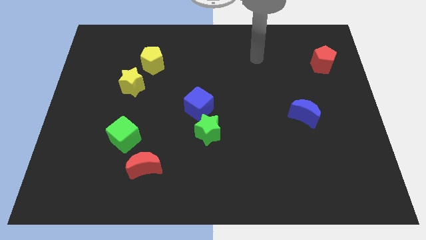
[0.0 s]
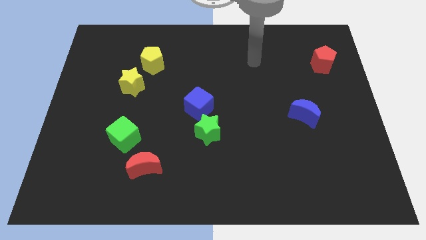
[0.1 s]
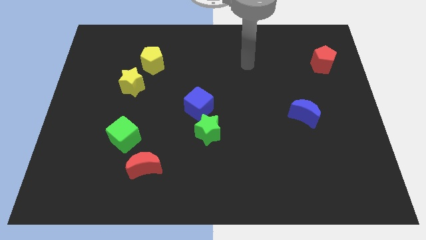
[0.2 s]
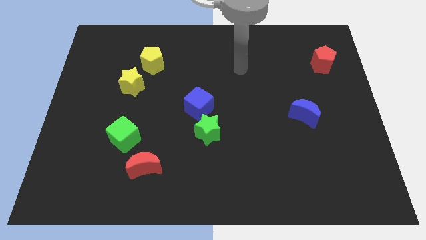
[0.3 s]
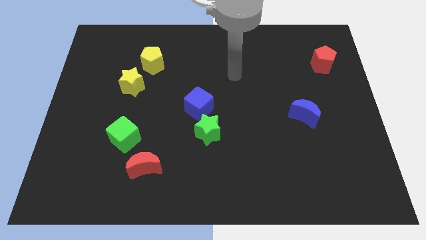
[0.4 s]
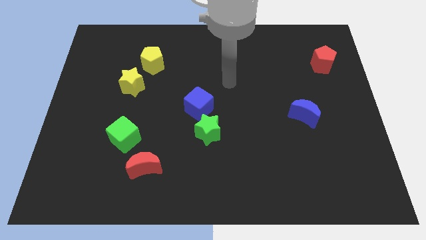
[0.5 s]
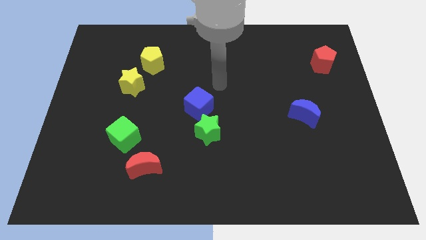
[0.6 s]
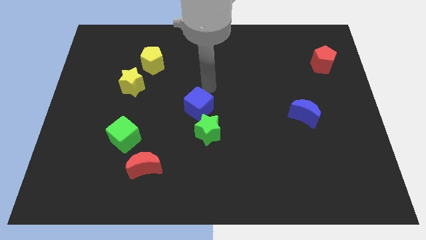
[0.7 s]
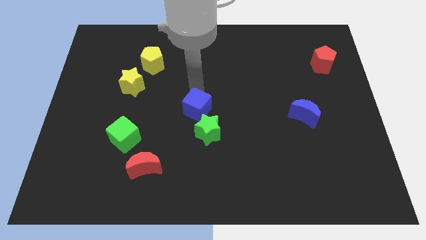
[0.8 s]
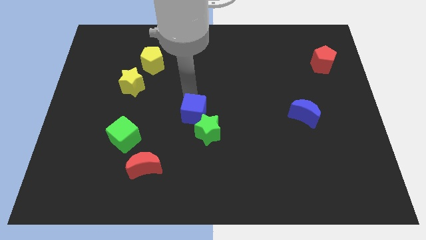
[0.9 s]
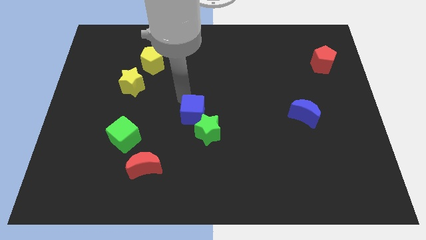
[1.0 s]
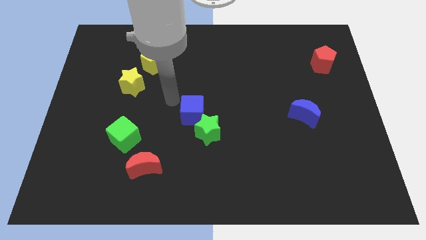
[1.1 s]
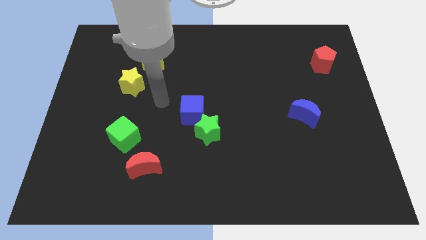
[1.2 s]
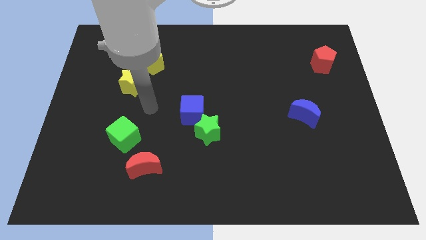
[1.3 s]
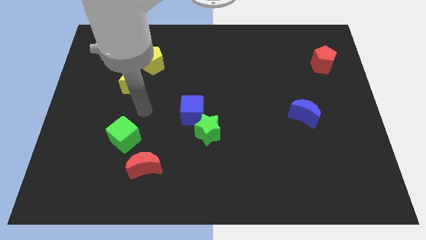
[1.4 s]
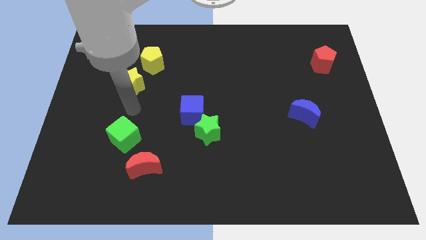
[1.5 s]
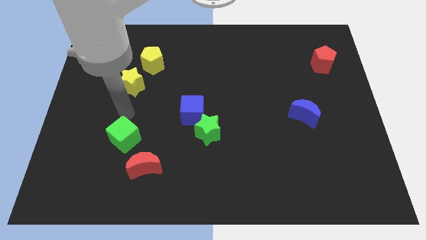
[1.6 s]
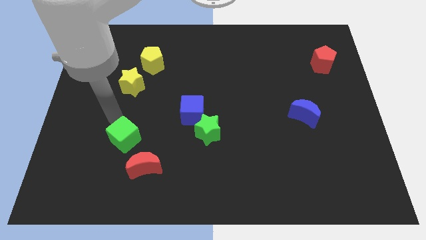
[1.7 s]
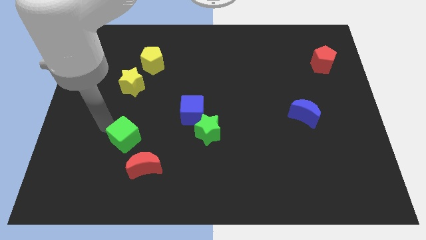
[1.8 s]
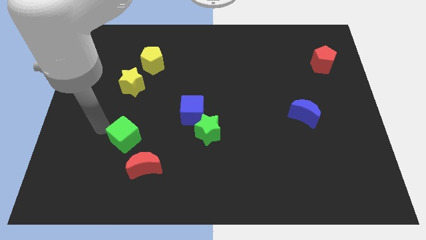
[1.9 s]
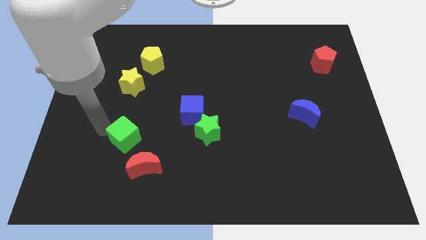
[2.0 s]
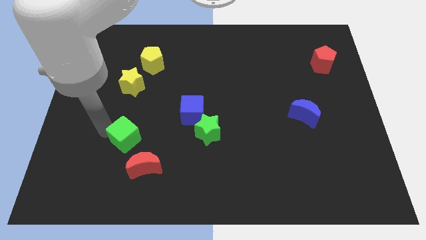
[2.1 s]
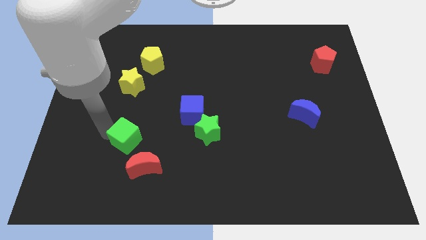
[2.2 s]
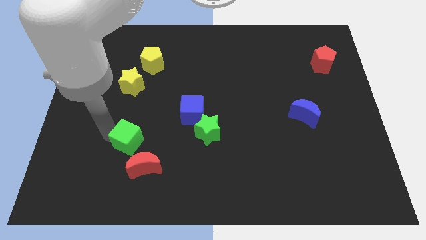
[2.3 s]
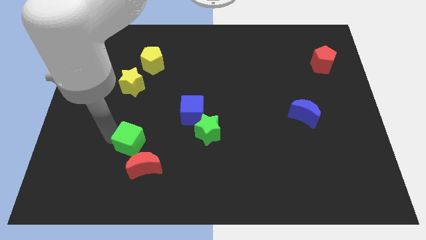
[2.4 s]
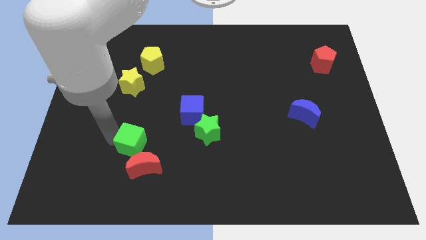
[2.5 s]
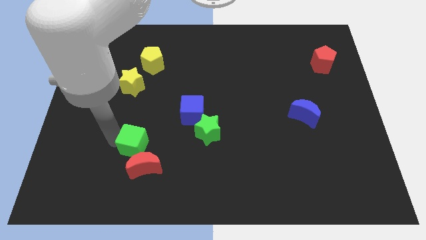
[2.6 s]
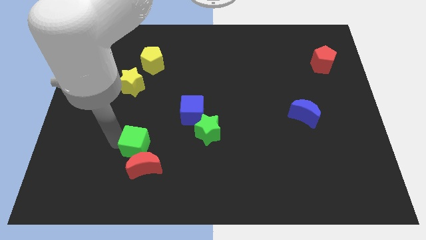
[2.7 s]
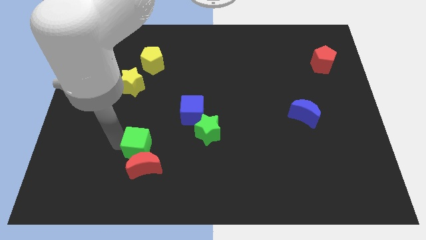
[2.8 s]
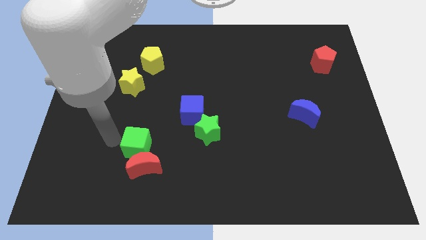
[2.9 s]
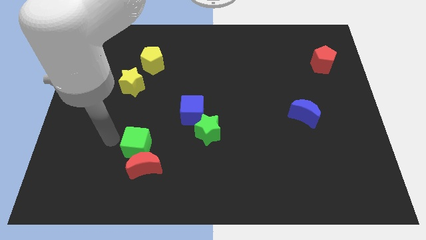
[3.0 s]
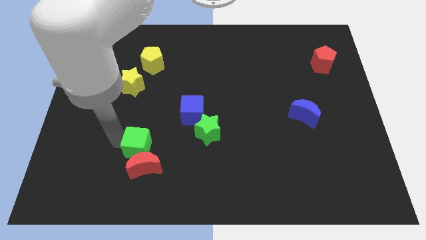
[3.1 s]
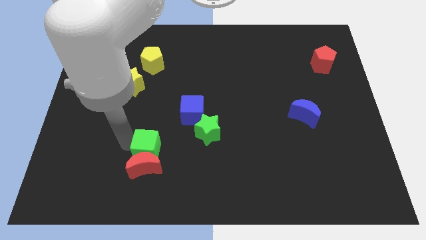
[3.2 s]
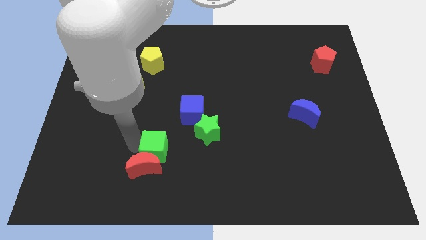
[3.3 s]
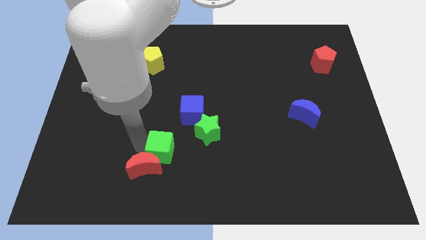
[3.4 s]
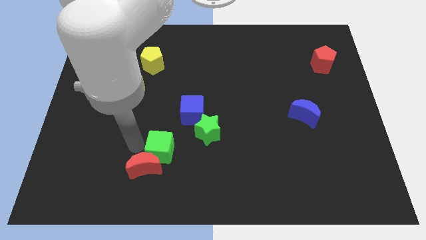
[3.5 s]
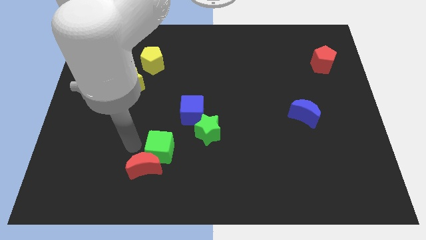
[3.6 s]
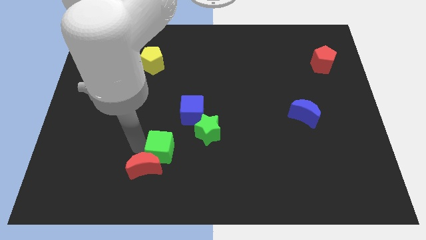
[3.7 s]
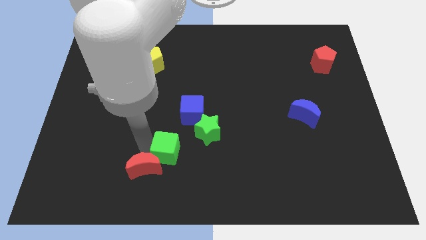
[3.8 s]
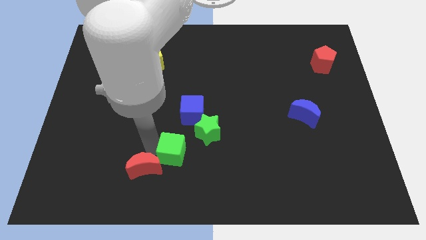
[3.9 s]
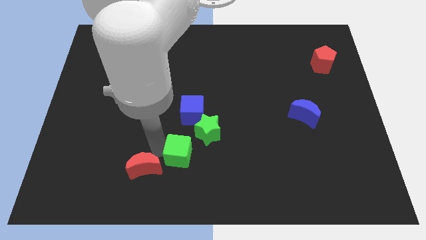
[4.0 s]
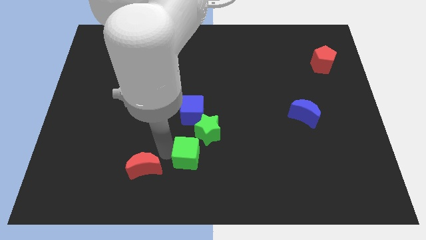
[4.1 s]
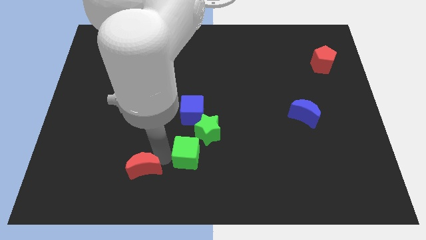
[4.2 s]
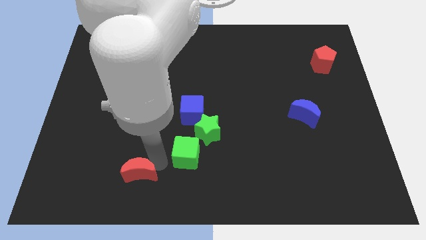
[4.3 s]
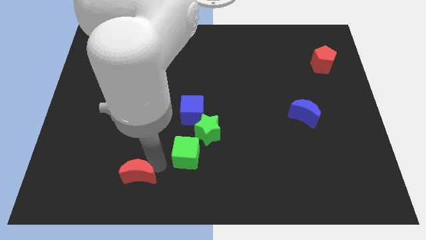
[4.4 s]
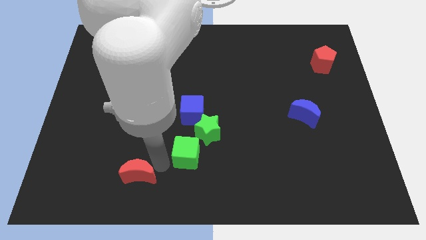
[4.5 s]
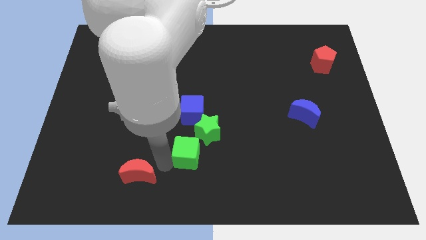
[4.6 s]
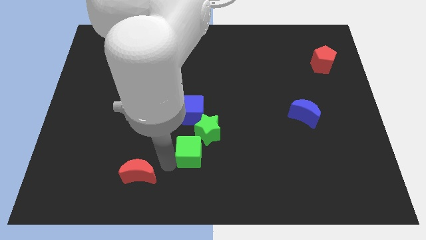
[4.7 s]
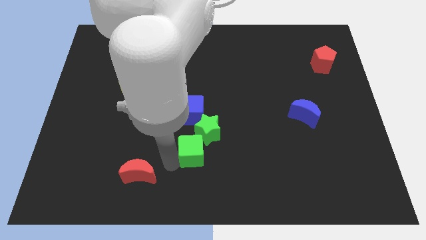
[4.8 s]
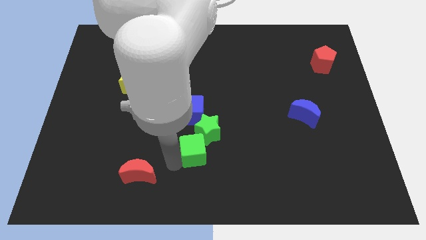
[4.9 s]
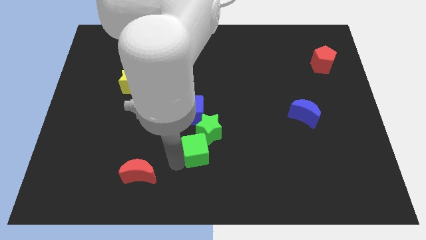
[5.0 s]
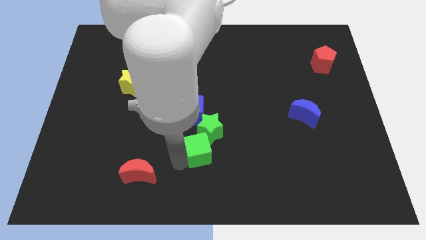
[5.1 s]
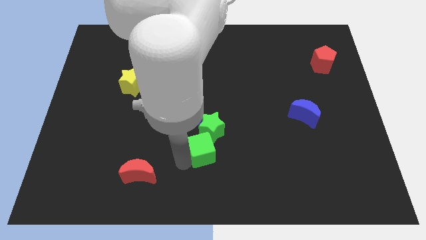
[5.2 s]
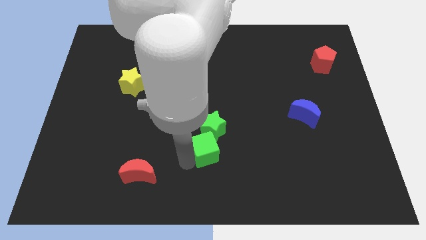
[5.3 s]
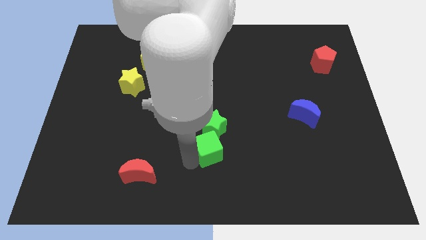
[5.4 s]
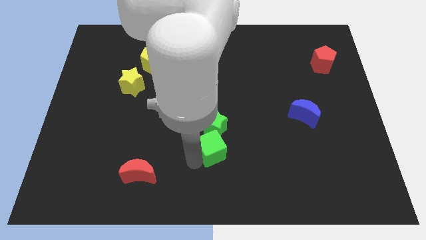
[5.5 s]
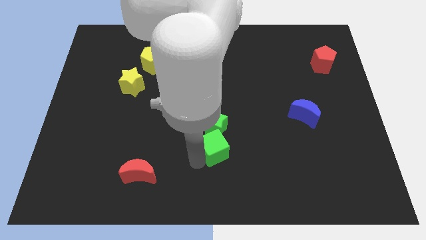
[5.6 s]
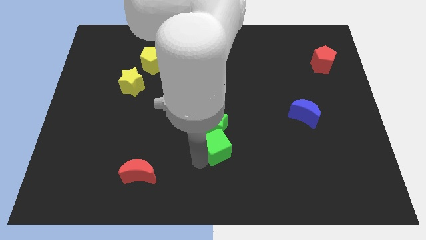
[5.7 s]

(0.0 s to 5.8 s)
slide the green cube to the right

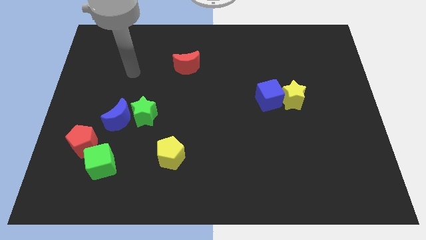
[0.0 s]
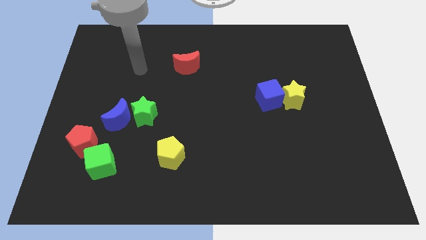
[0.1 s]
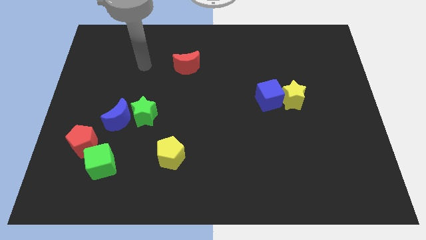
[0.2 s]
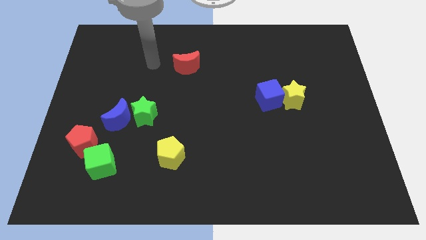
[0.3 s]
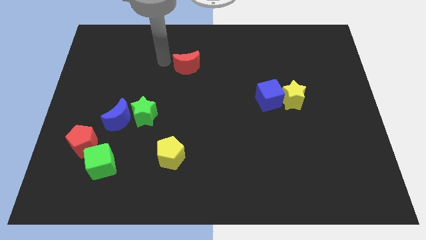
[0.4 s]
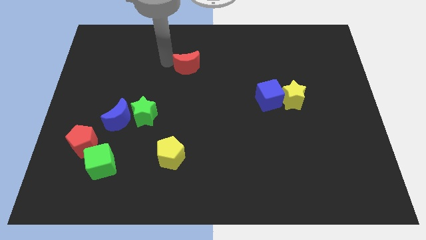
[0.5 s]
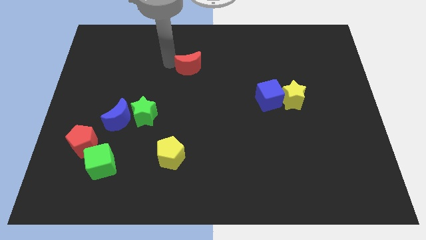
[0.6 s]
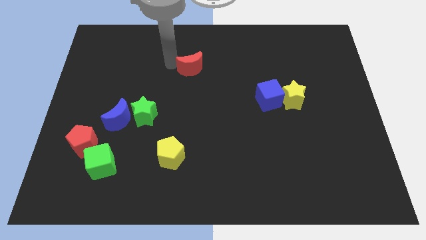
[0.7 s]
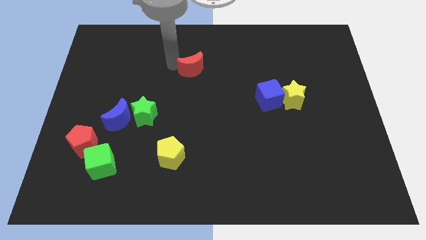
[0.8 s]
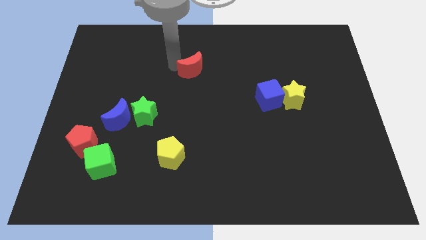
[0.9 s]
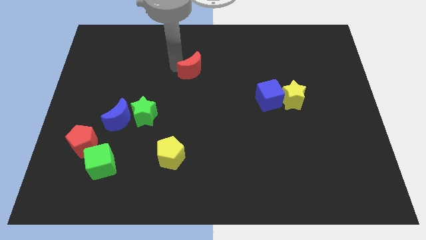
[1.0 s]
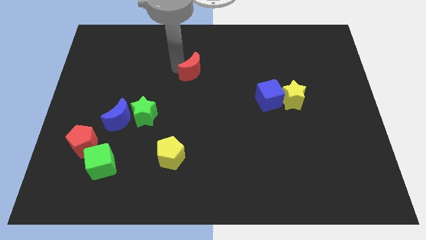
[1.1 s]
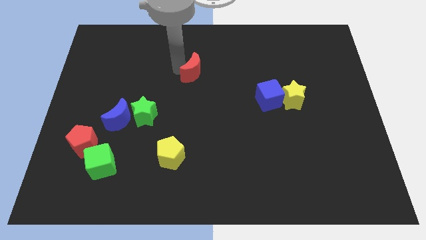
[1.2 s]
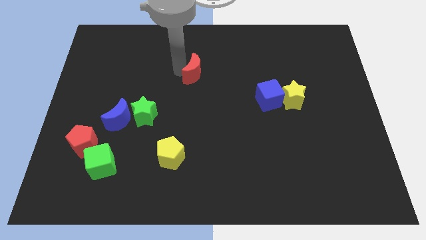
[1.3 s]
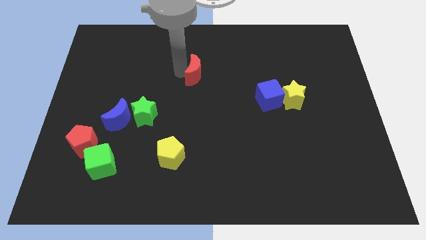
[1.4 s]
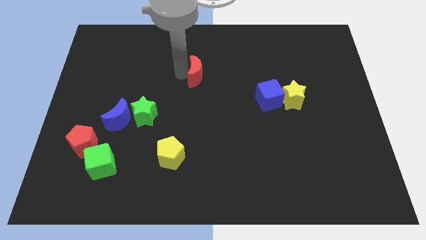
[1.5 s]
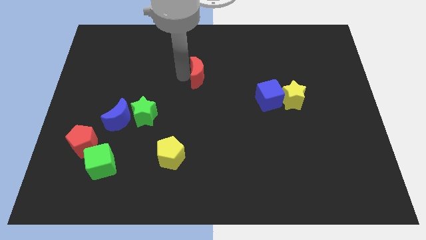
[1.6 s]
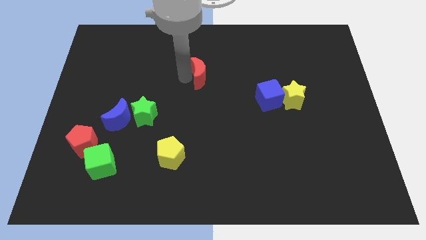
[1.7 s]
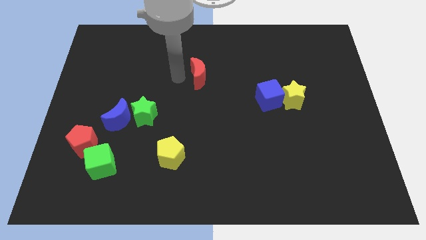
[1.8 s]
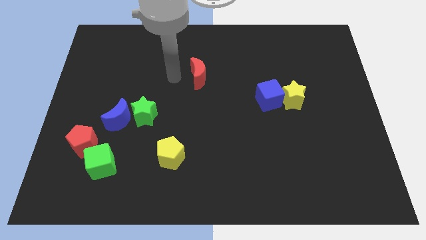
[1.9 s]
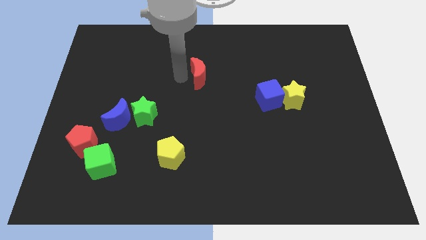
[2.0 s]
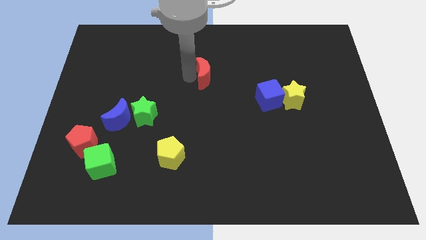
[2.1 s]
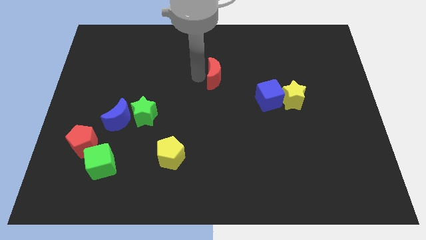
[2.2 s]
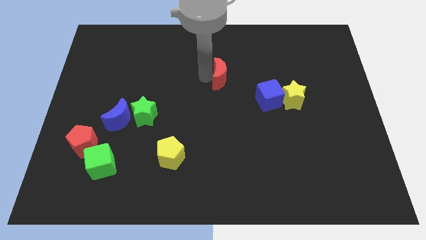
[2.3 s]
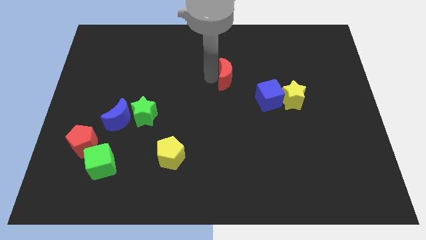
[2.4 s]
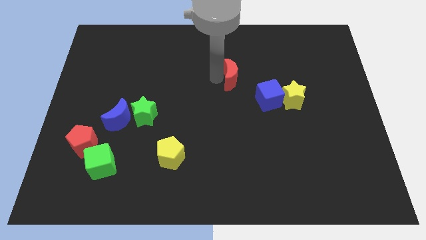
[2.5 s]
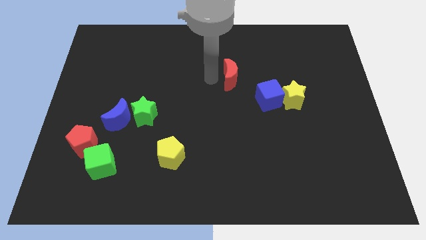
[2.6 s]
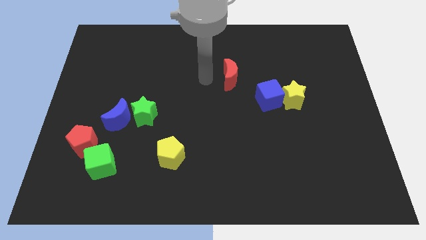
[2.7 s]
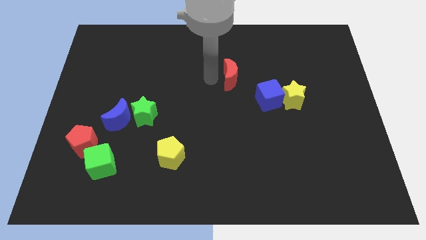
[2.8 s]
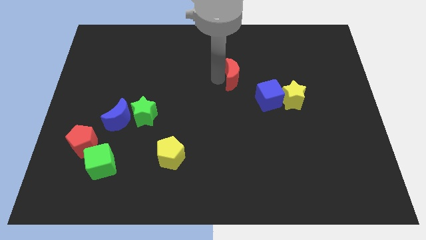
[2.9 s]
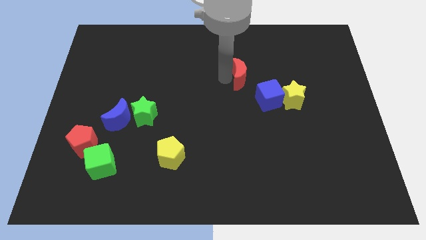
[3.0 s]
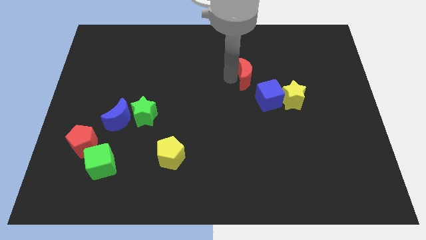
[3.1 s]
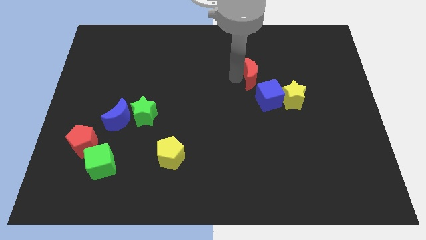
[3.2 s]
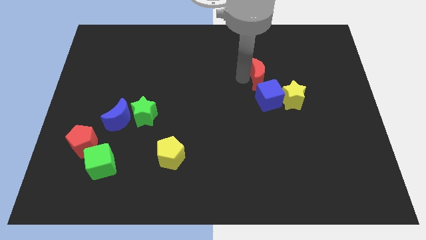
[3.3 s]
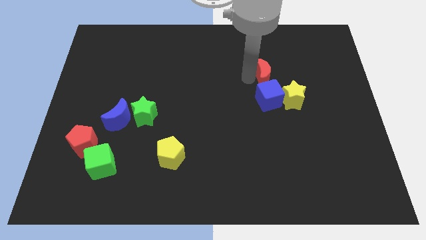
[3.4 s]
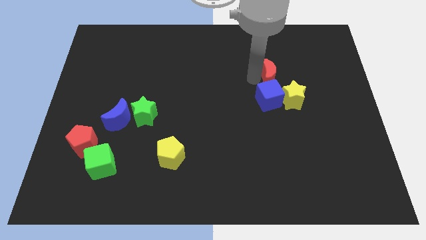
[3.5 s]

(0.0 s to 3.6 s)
push the red moon to the right
